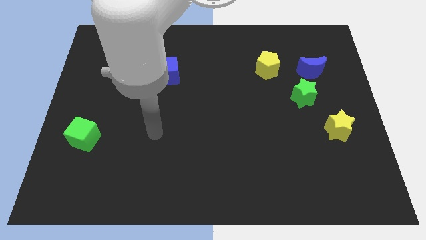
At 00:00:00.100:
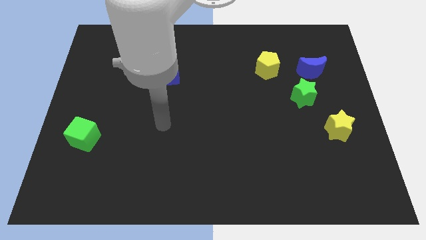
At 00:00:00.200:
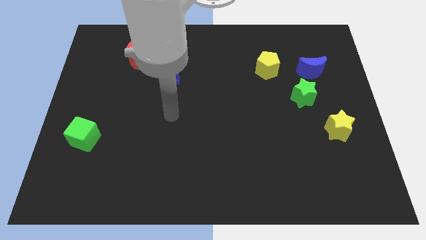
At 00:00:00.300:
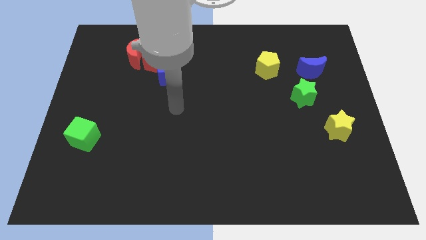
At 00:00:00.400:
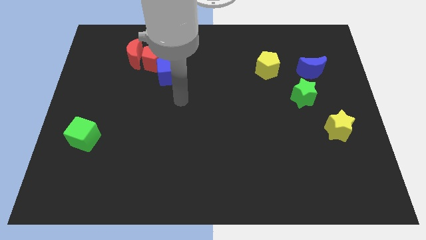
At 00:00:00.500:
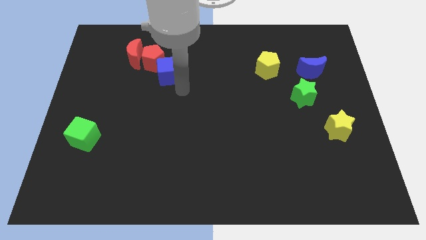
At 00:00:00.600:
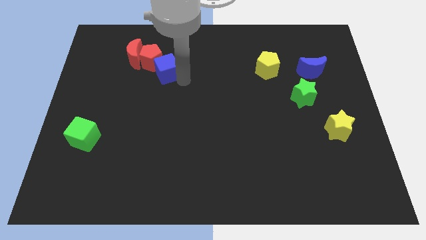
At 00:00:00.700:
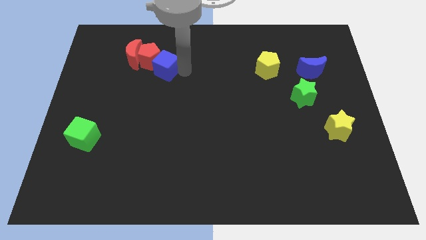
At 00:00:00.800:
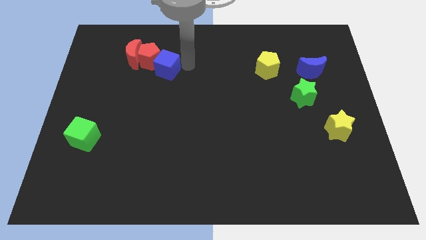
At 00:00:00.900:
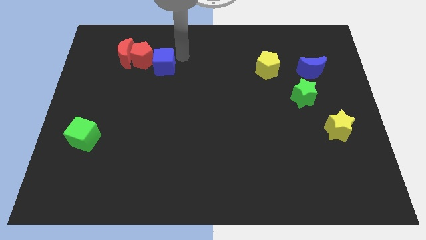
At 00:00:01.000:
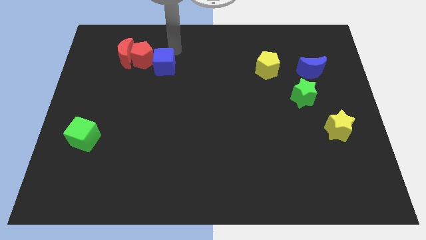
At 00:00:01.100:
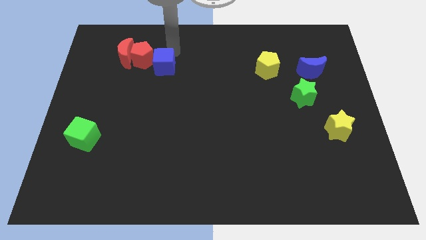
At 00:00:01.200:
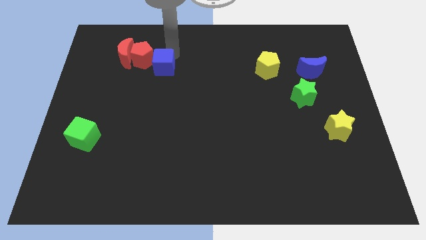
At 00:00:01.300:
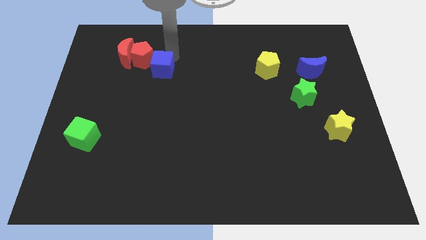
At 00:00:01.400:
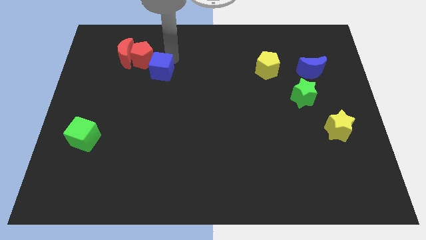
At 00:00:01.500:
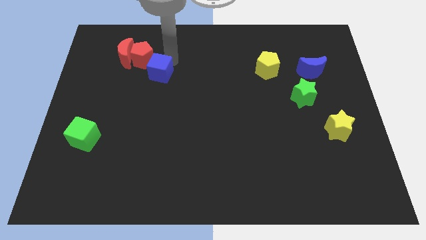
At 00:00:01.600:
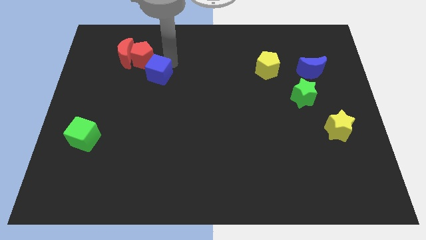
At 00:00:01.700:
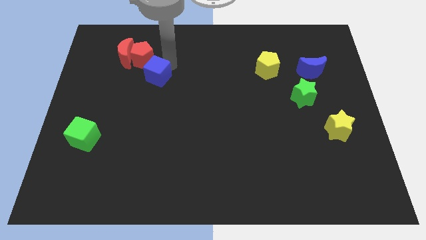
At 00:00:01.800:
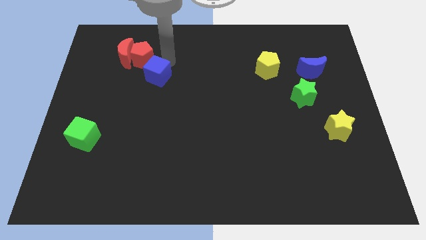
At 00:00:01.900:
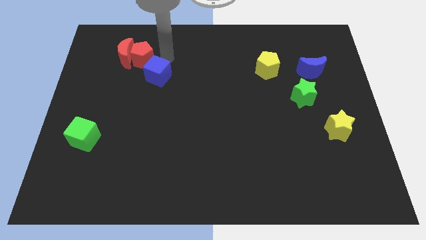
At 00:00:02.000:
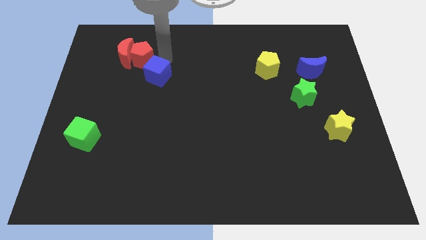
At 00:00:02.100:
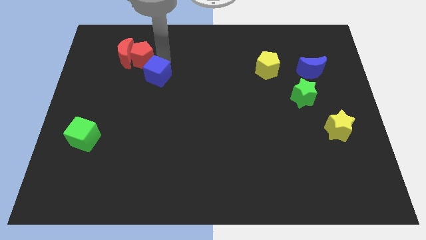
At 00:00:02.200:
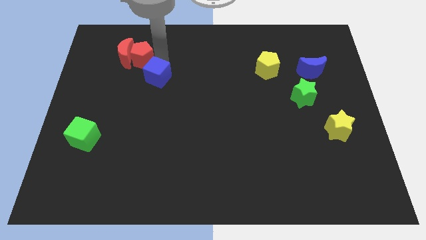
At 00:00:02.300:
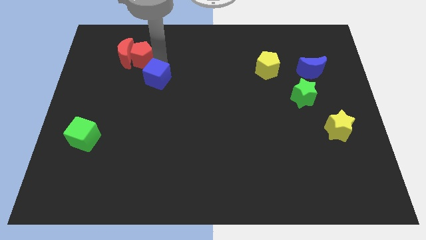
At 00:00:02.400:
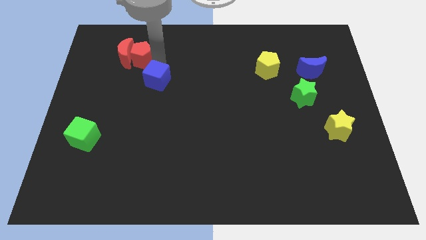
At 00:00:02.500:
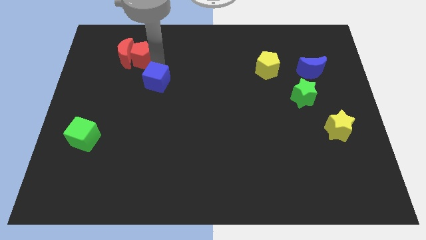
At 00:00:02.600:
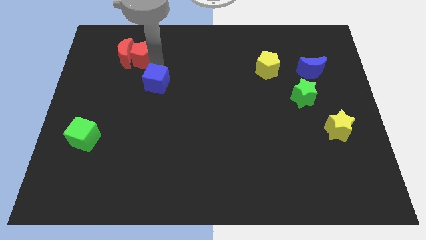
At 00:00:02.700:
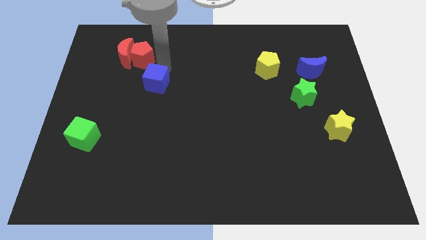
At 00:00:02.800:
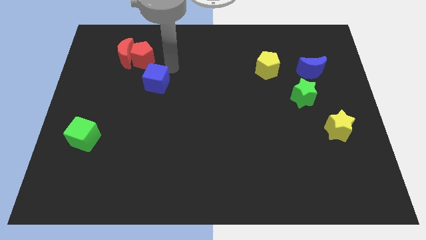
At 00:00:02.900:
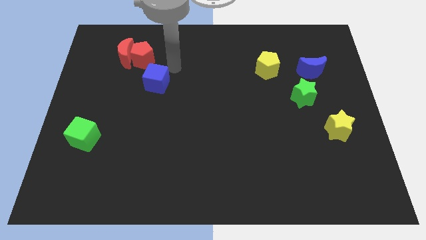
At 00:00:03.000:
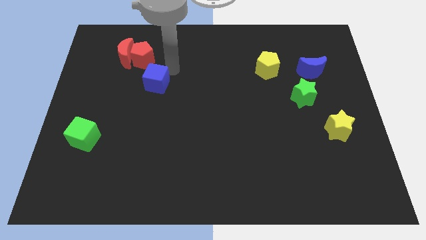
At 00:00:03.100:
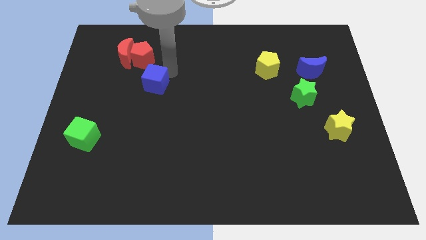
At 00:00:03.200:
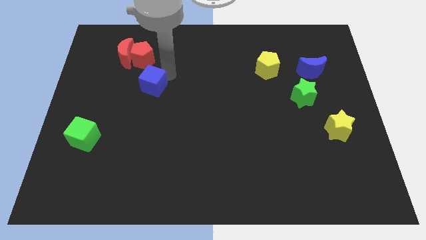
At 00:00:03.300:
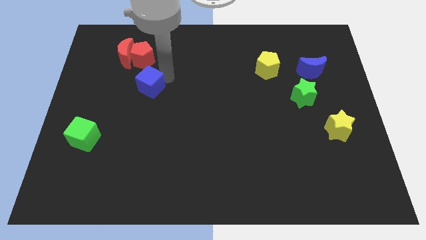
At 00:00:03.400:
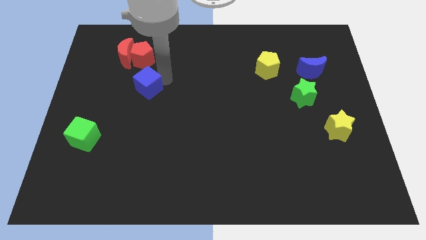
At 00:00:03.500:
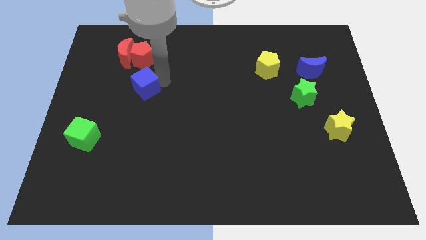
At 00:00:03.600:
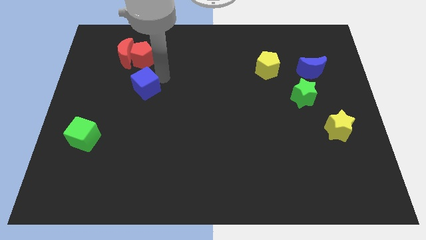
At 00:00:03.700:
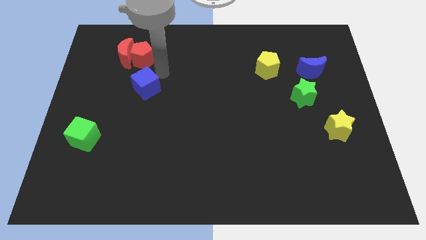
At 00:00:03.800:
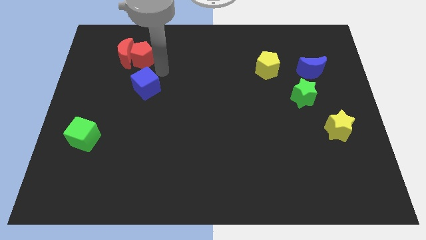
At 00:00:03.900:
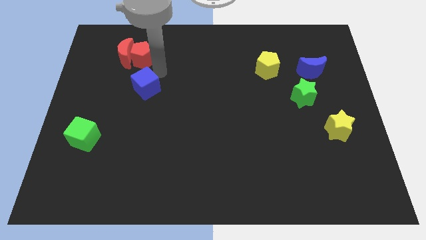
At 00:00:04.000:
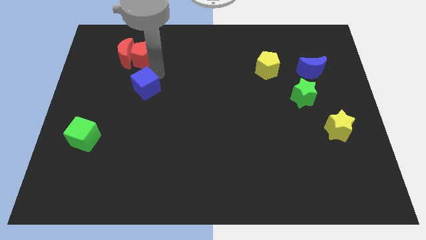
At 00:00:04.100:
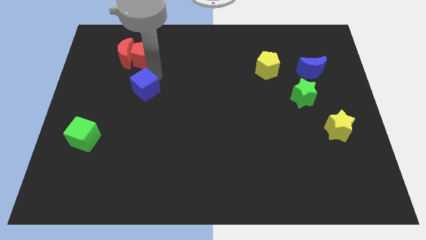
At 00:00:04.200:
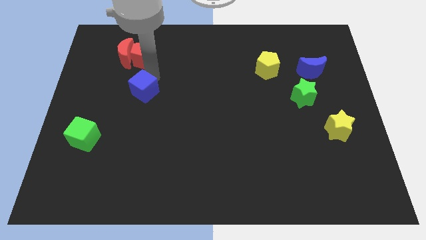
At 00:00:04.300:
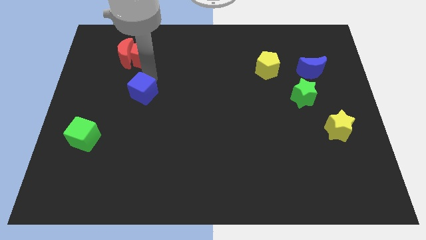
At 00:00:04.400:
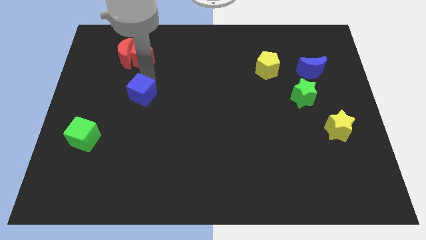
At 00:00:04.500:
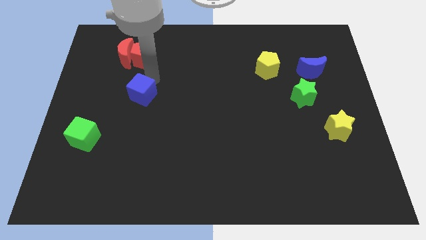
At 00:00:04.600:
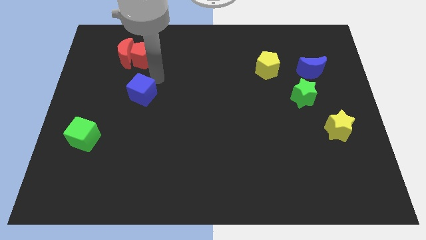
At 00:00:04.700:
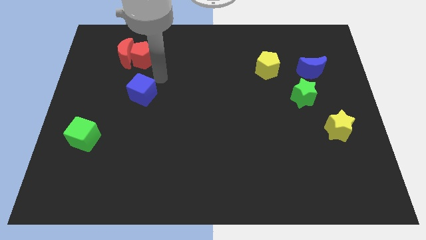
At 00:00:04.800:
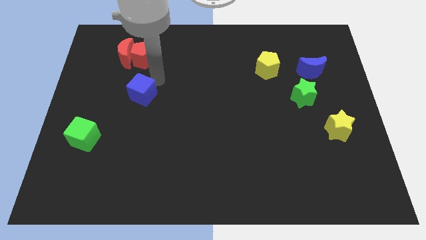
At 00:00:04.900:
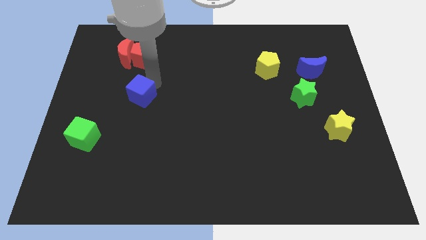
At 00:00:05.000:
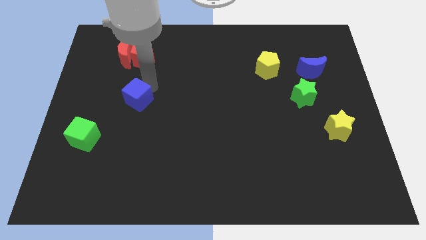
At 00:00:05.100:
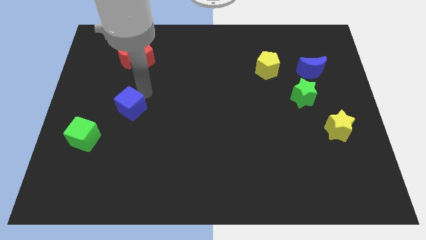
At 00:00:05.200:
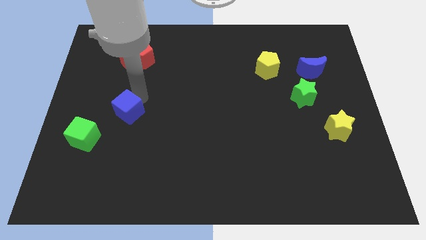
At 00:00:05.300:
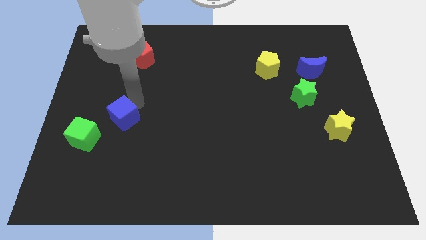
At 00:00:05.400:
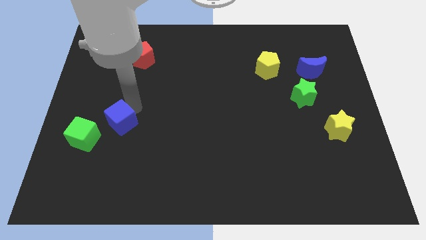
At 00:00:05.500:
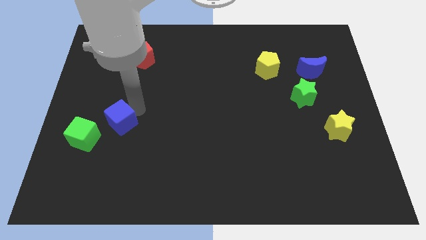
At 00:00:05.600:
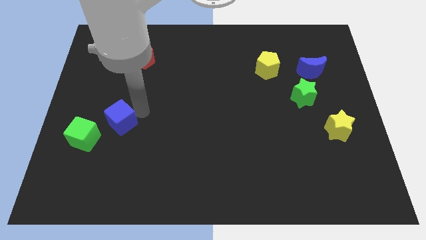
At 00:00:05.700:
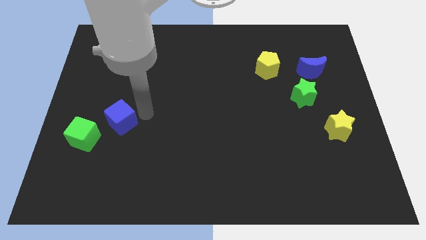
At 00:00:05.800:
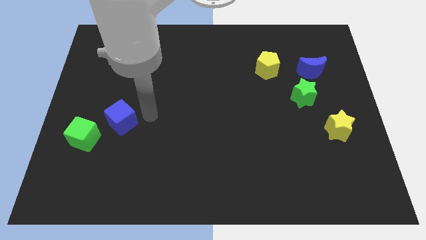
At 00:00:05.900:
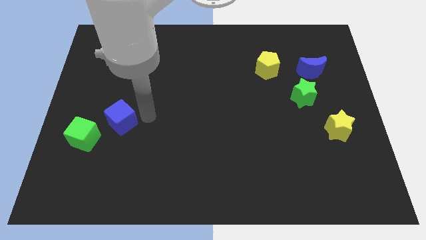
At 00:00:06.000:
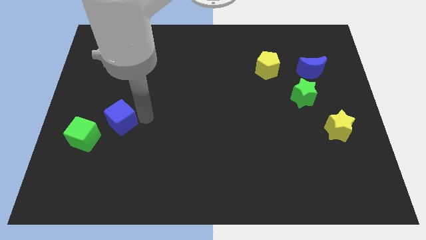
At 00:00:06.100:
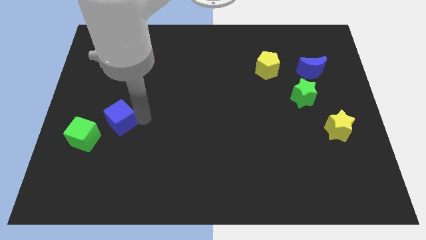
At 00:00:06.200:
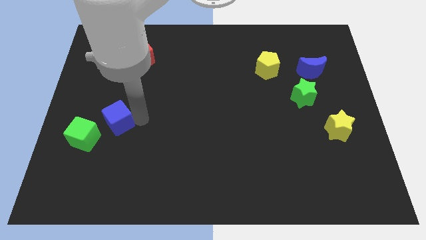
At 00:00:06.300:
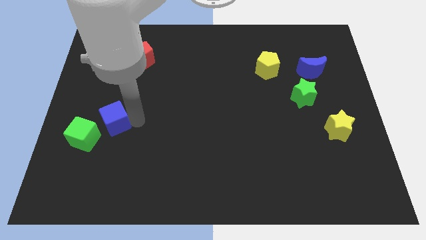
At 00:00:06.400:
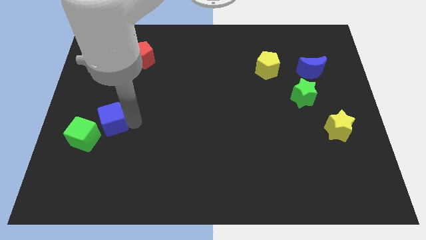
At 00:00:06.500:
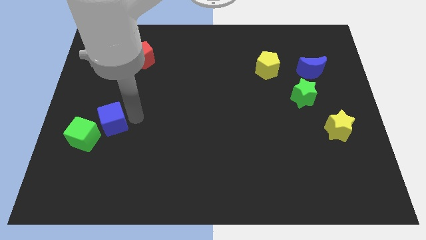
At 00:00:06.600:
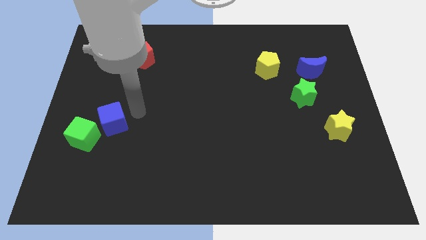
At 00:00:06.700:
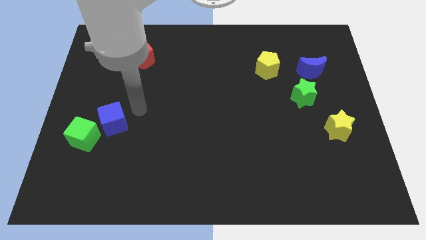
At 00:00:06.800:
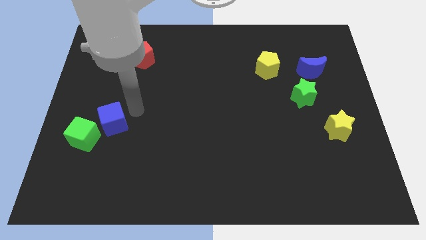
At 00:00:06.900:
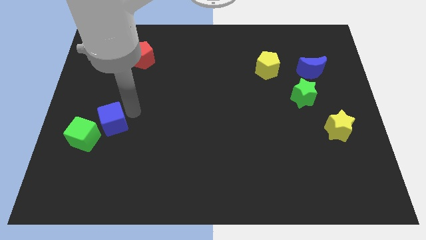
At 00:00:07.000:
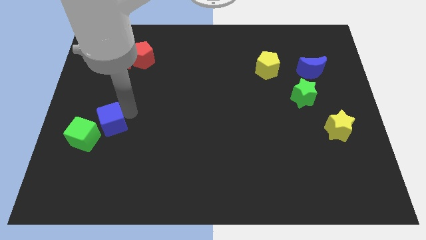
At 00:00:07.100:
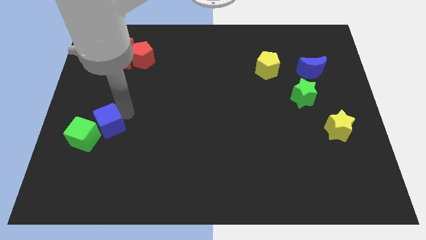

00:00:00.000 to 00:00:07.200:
slide the blue cube to the green cube

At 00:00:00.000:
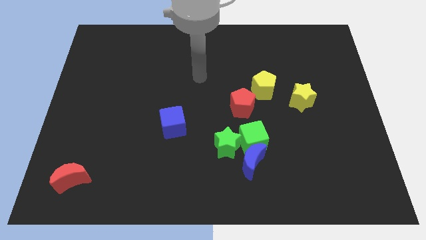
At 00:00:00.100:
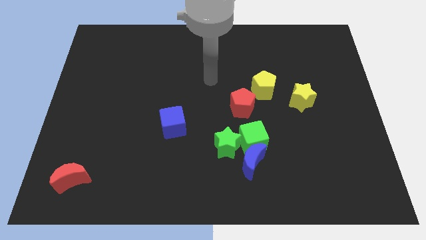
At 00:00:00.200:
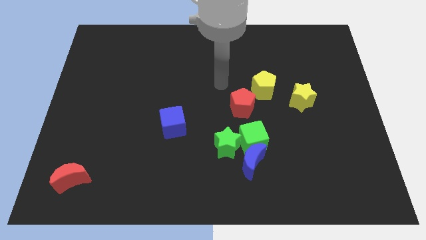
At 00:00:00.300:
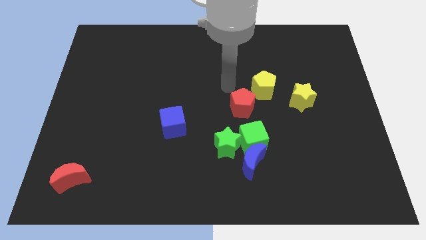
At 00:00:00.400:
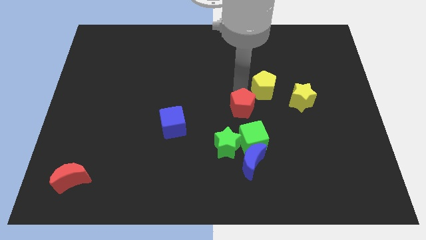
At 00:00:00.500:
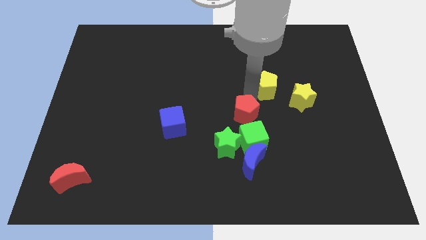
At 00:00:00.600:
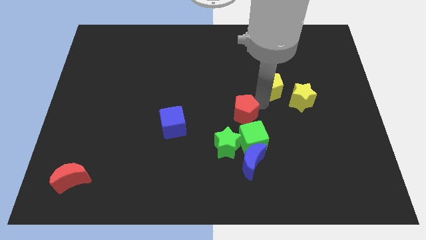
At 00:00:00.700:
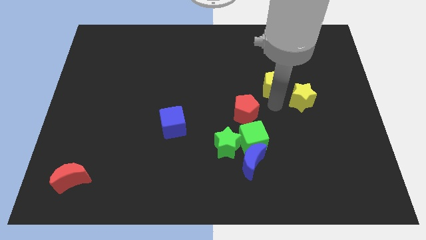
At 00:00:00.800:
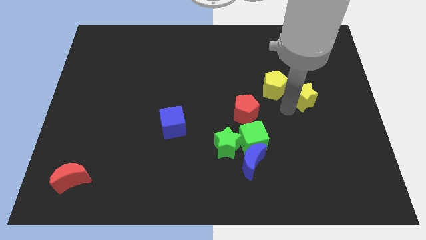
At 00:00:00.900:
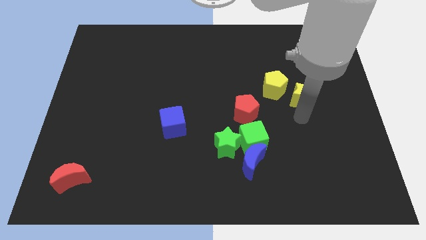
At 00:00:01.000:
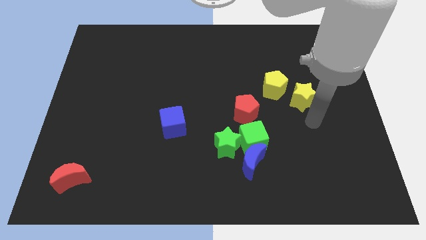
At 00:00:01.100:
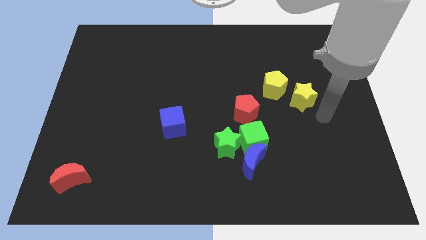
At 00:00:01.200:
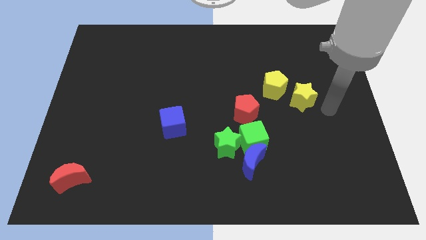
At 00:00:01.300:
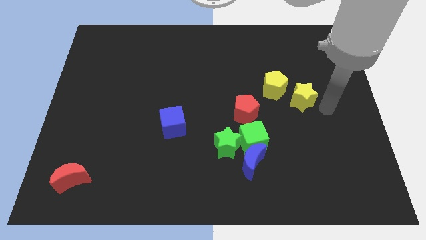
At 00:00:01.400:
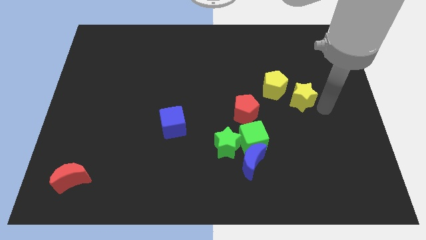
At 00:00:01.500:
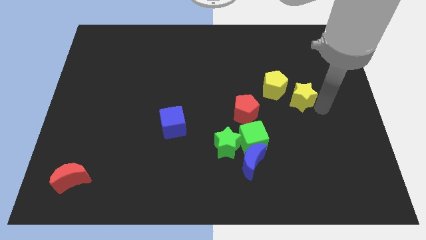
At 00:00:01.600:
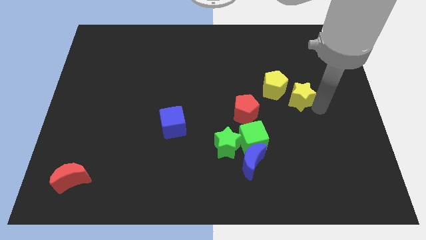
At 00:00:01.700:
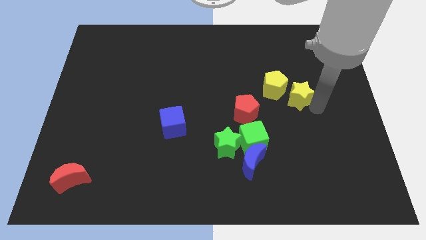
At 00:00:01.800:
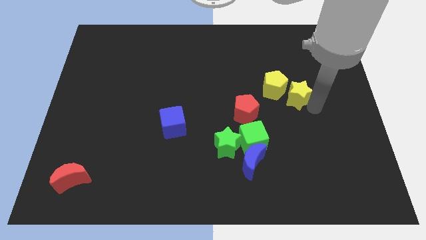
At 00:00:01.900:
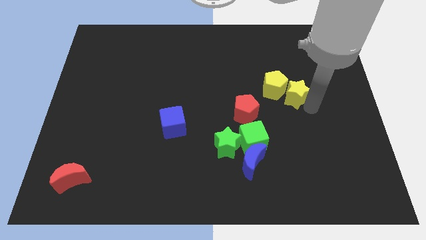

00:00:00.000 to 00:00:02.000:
move the yellow star towards the yellow pentagon
